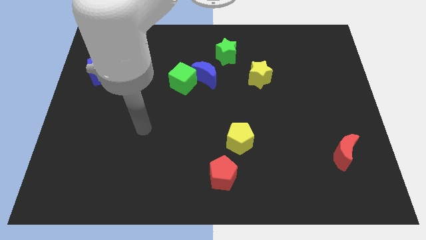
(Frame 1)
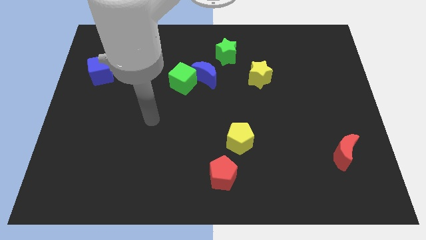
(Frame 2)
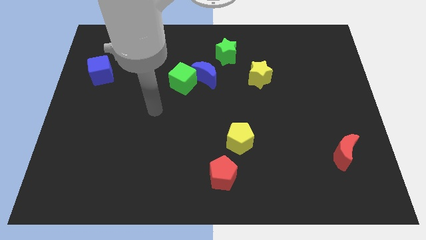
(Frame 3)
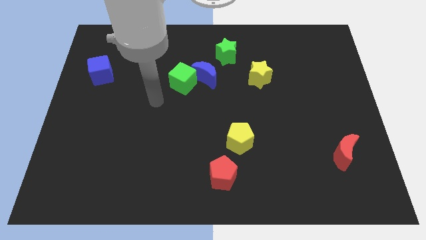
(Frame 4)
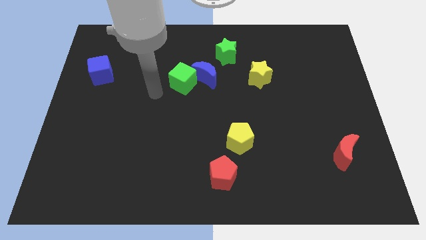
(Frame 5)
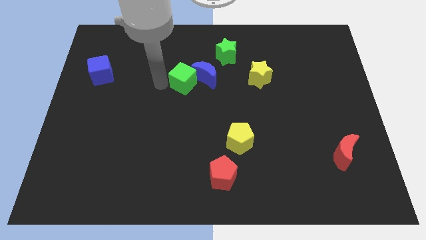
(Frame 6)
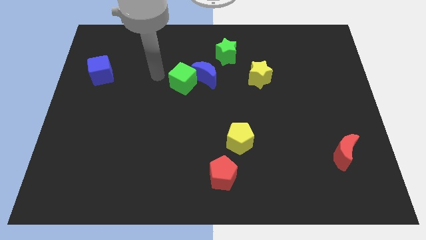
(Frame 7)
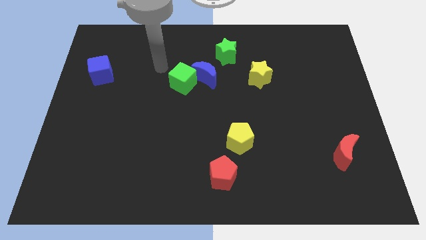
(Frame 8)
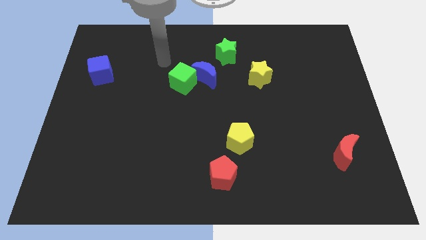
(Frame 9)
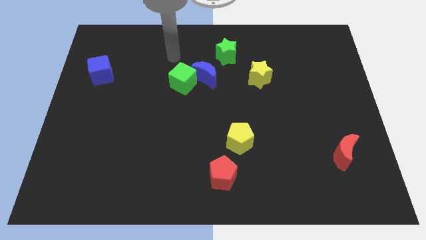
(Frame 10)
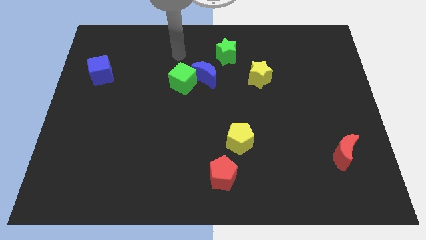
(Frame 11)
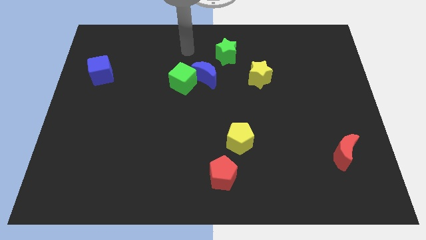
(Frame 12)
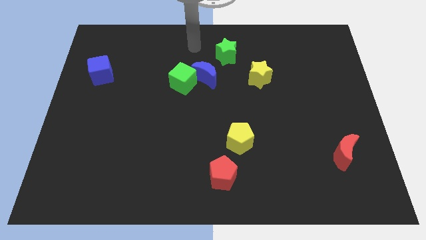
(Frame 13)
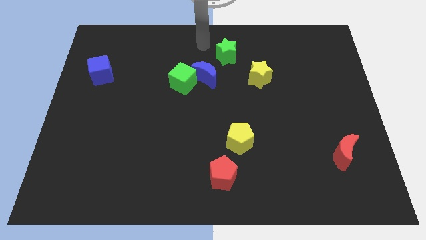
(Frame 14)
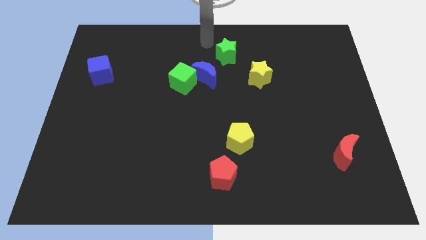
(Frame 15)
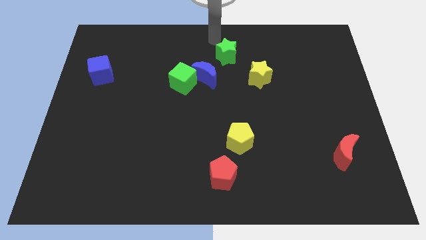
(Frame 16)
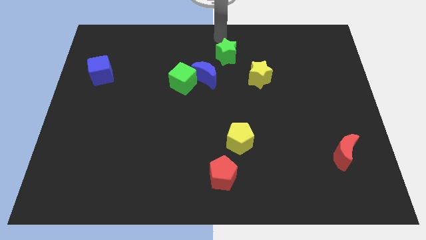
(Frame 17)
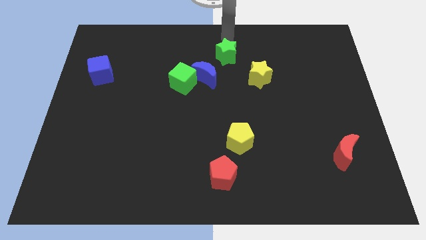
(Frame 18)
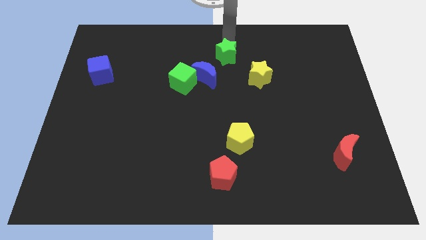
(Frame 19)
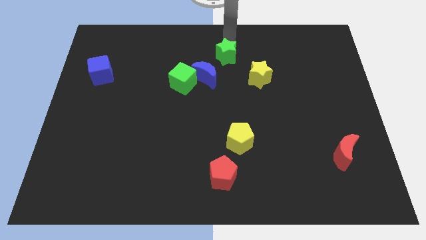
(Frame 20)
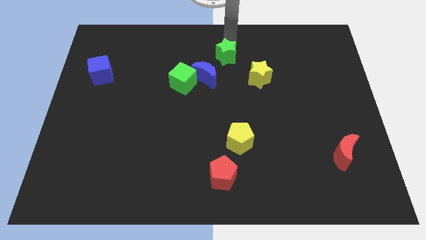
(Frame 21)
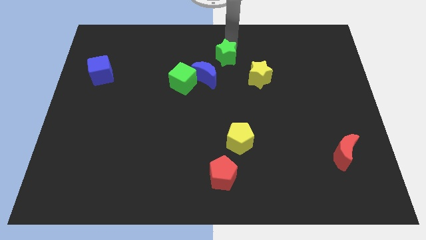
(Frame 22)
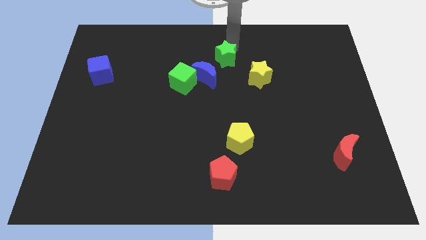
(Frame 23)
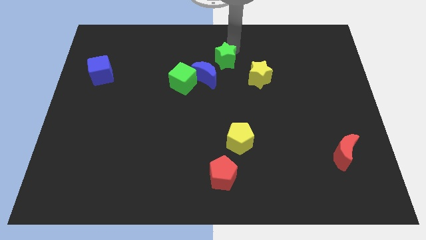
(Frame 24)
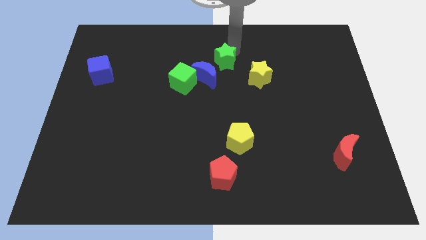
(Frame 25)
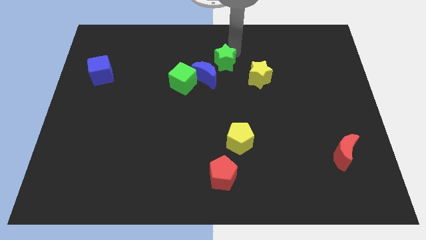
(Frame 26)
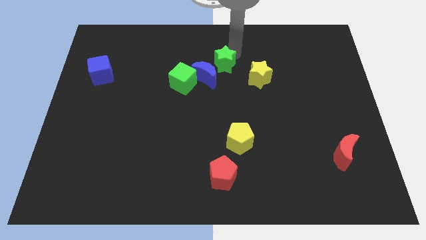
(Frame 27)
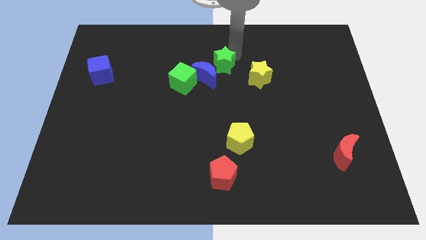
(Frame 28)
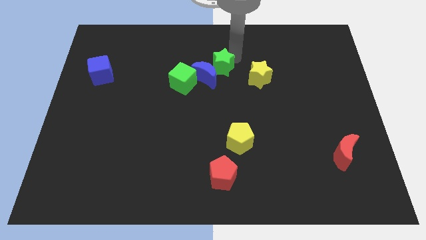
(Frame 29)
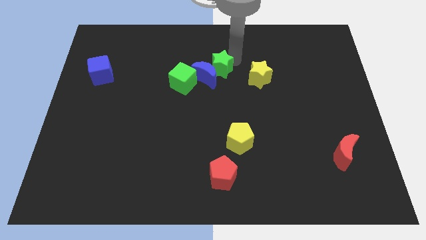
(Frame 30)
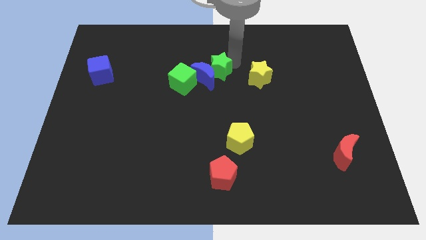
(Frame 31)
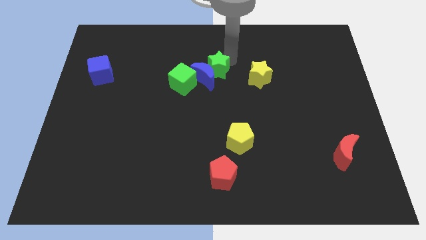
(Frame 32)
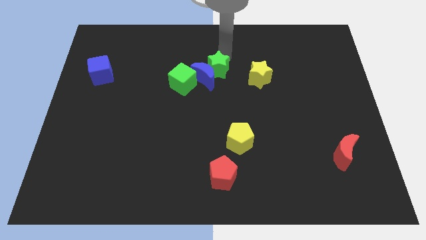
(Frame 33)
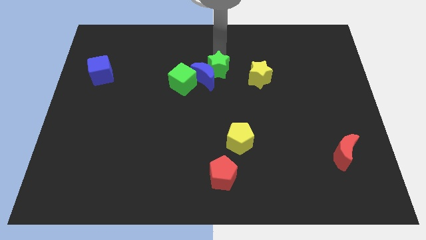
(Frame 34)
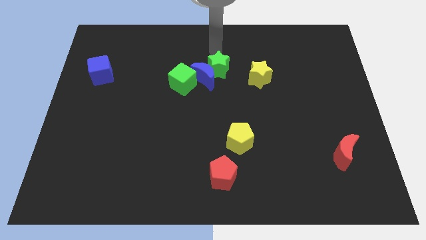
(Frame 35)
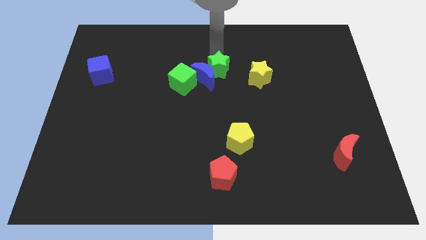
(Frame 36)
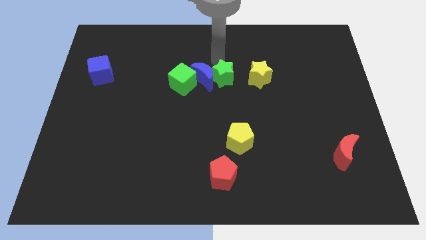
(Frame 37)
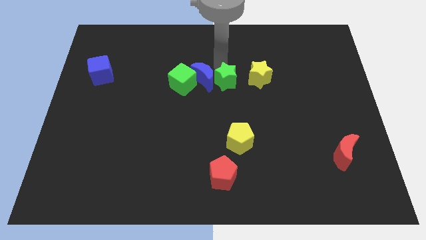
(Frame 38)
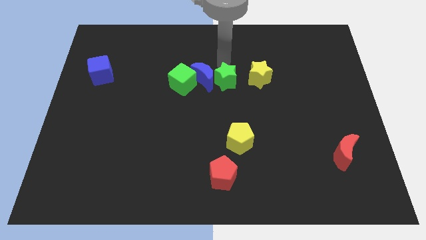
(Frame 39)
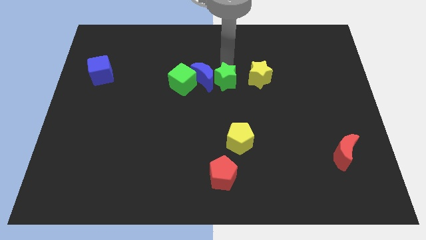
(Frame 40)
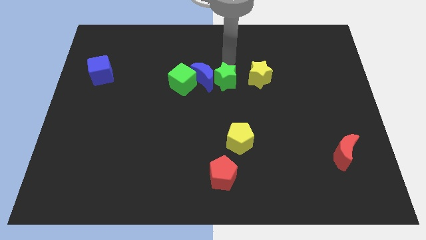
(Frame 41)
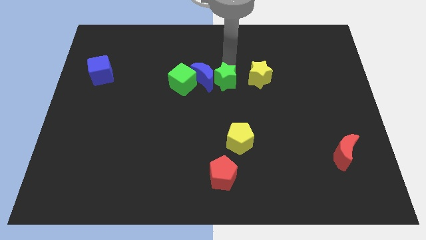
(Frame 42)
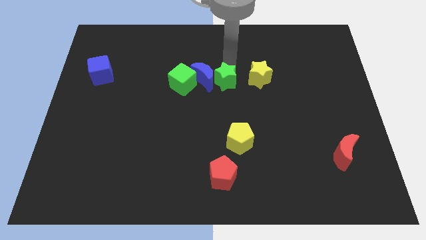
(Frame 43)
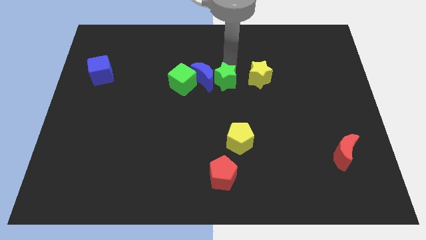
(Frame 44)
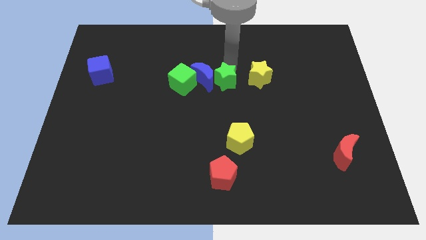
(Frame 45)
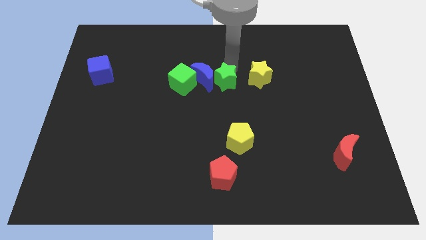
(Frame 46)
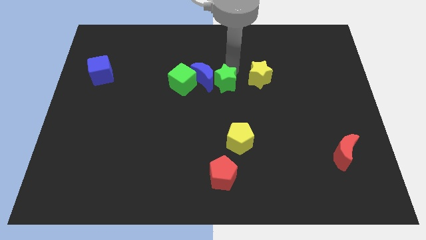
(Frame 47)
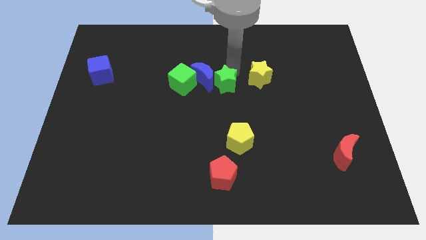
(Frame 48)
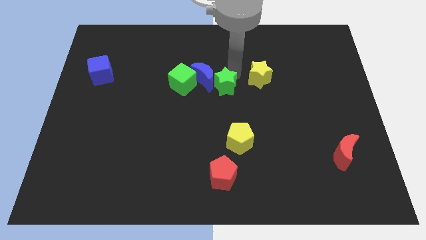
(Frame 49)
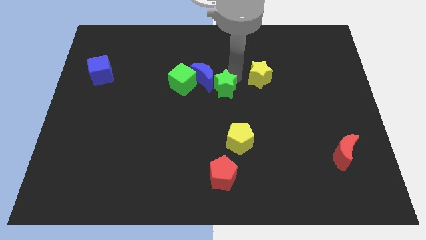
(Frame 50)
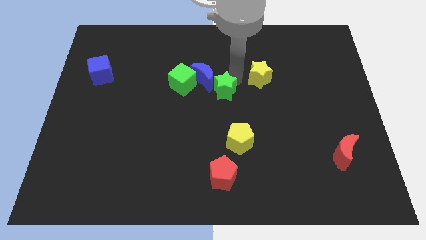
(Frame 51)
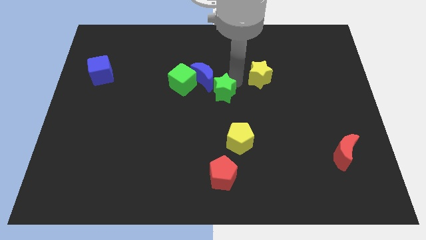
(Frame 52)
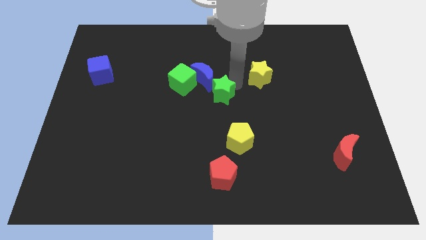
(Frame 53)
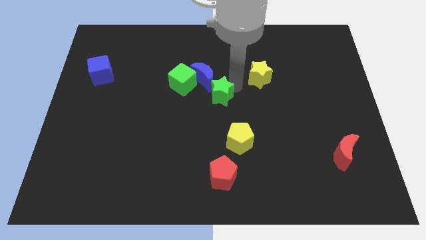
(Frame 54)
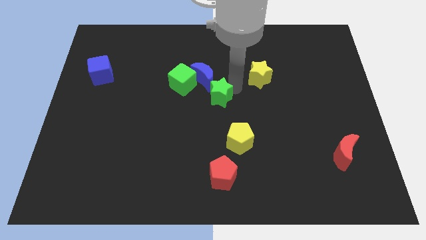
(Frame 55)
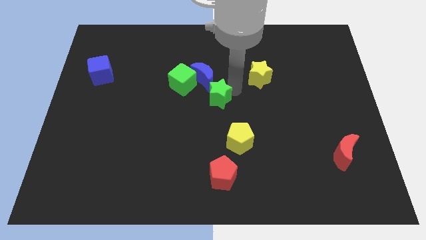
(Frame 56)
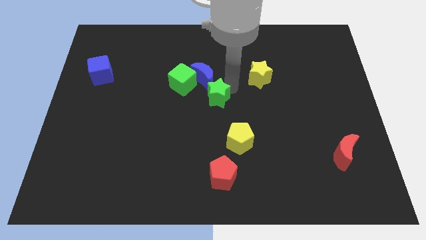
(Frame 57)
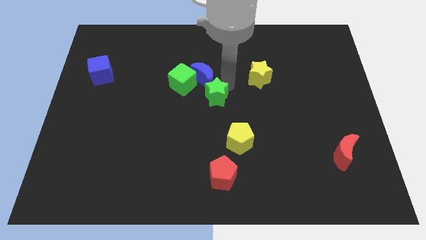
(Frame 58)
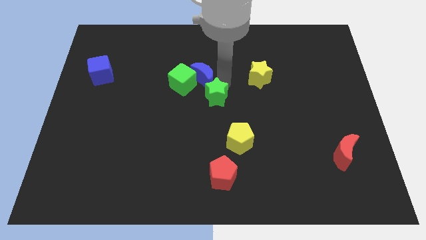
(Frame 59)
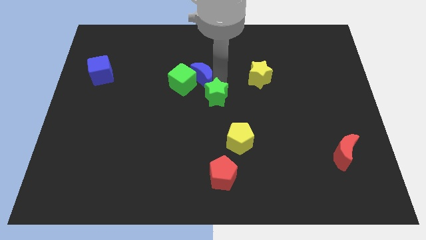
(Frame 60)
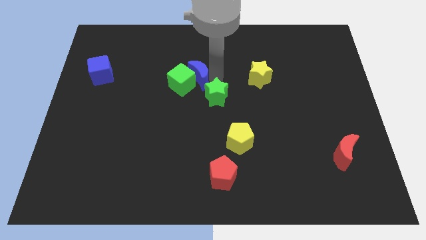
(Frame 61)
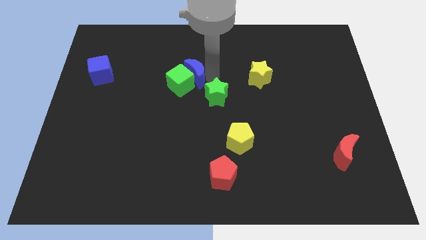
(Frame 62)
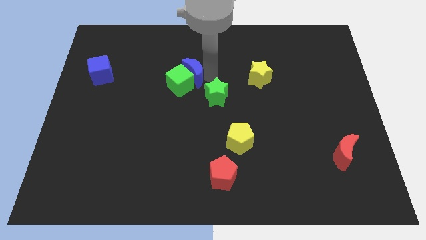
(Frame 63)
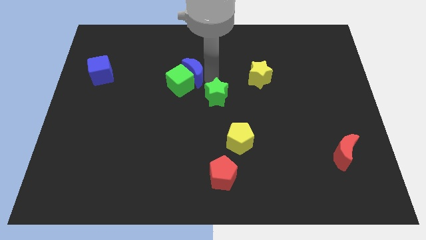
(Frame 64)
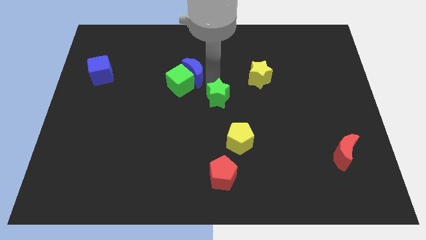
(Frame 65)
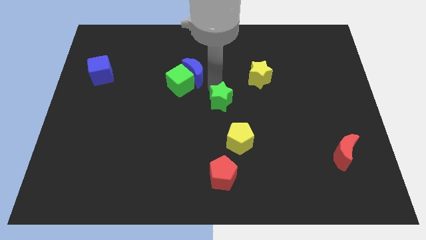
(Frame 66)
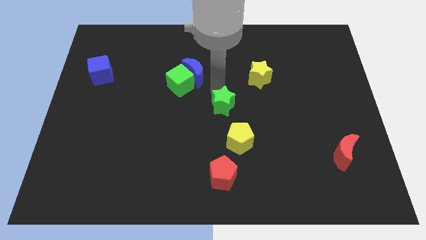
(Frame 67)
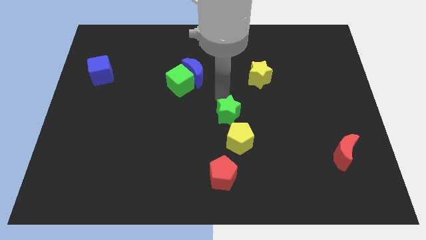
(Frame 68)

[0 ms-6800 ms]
move the green star to the top of the red pentagon
